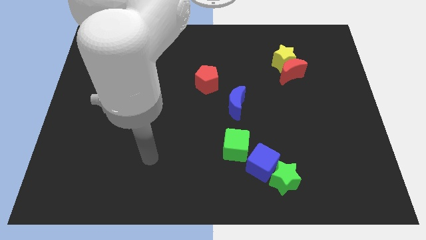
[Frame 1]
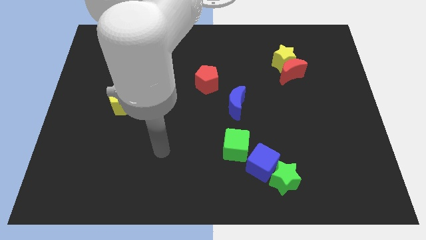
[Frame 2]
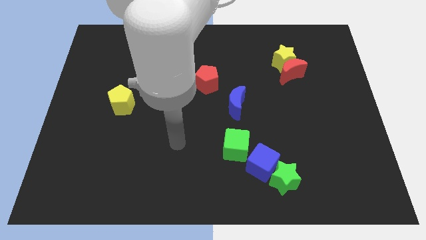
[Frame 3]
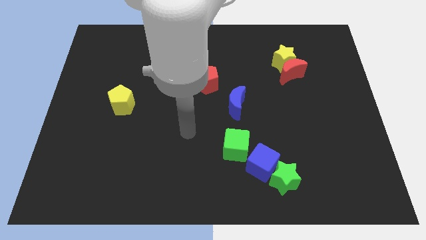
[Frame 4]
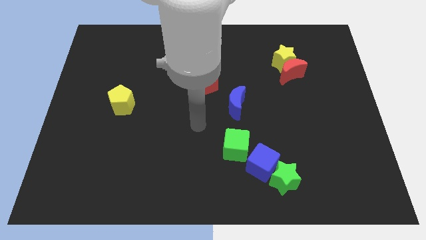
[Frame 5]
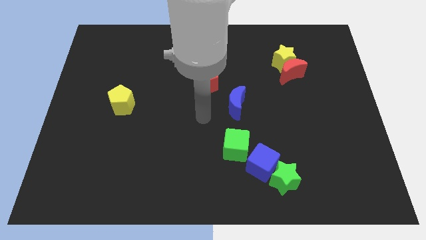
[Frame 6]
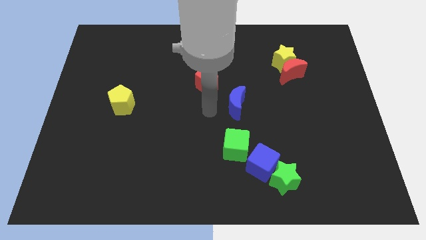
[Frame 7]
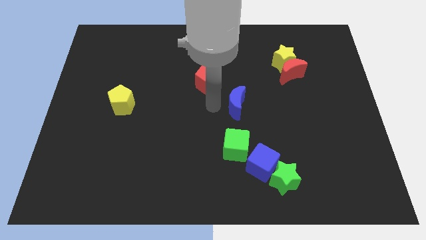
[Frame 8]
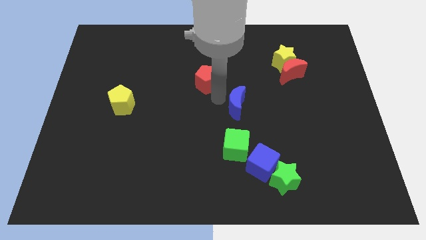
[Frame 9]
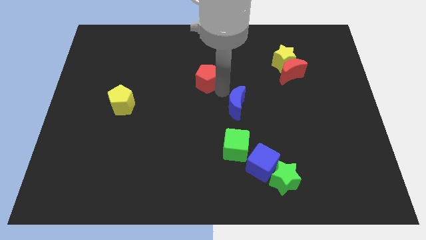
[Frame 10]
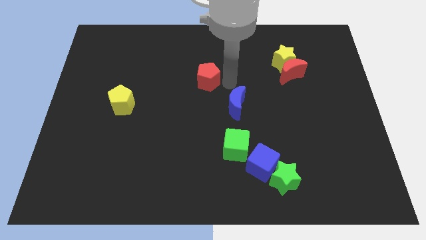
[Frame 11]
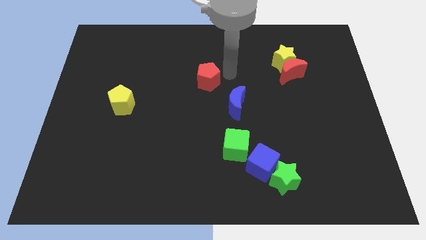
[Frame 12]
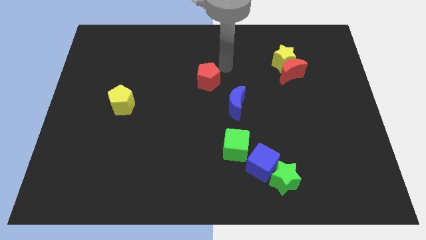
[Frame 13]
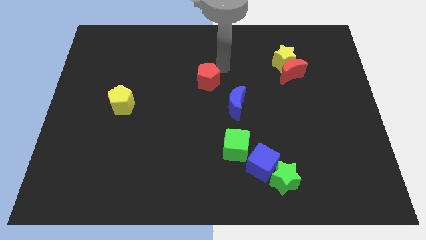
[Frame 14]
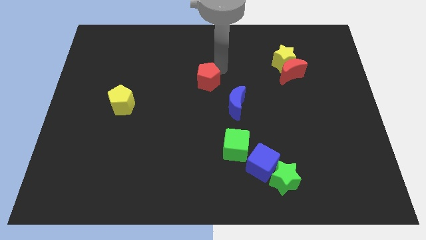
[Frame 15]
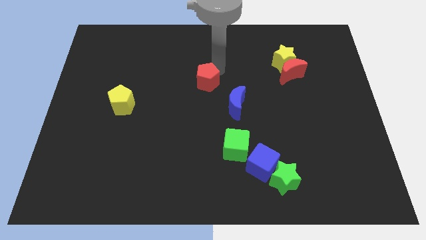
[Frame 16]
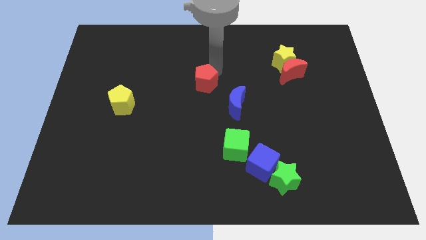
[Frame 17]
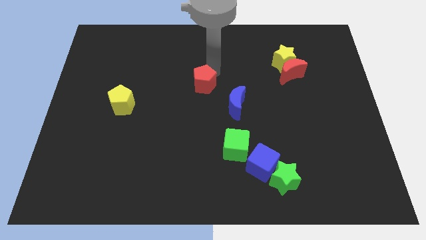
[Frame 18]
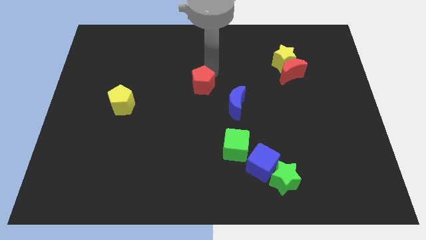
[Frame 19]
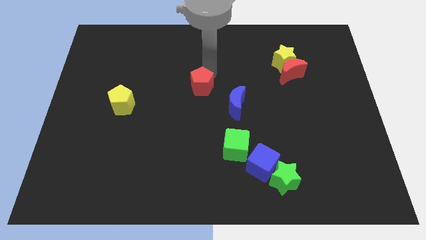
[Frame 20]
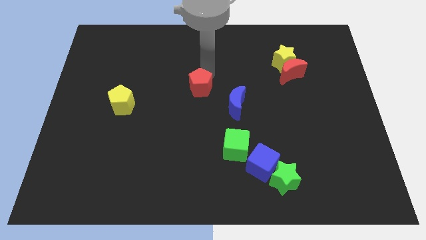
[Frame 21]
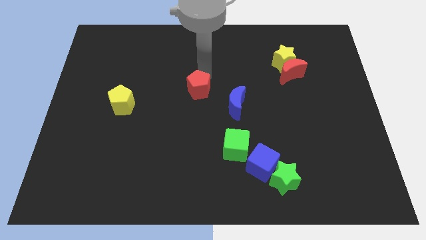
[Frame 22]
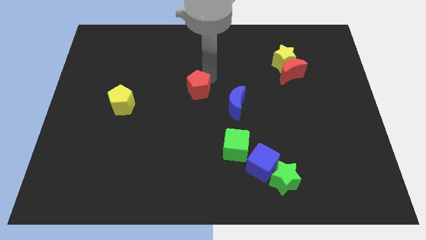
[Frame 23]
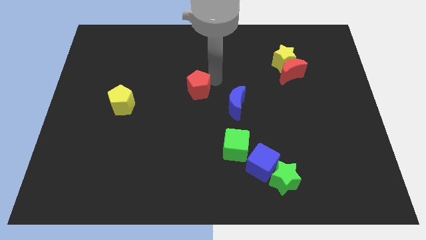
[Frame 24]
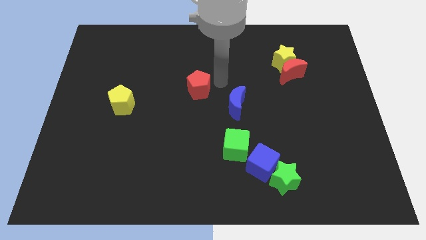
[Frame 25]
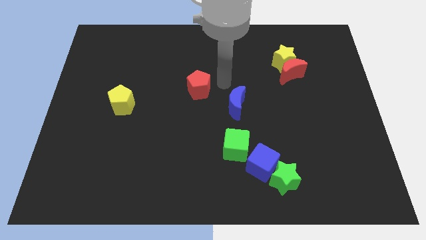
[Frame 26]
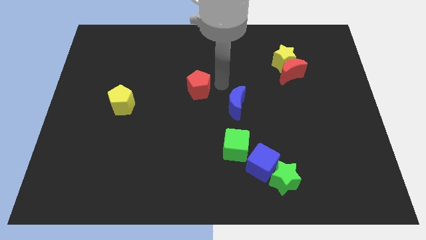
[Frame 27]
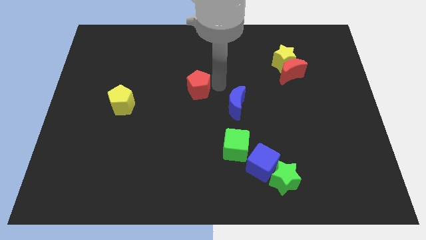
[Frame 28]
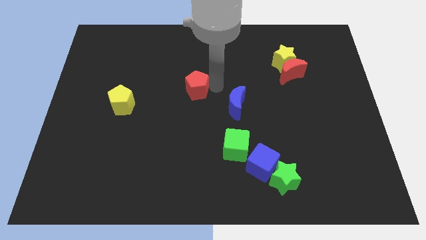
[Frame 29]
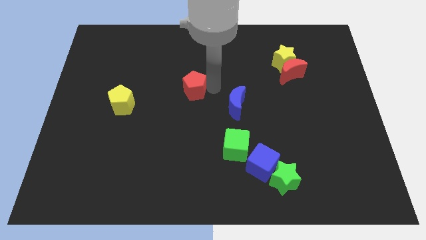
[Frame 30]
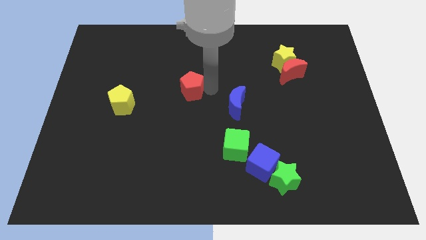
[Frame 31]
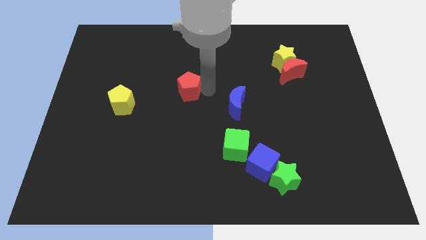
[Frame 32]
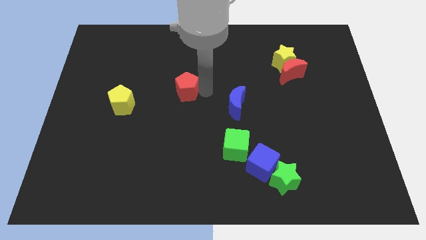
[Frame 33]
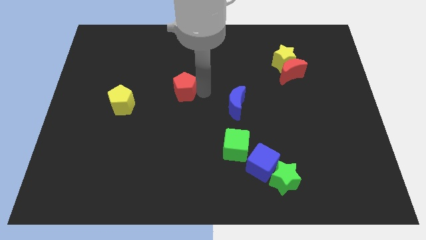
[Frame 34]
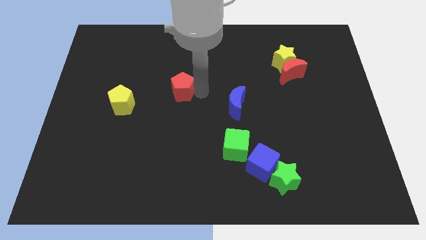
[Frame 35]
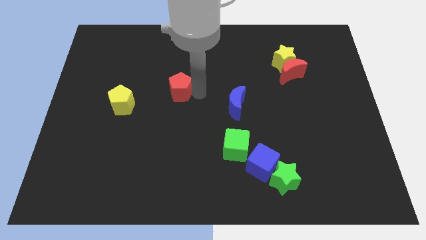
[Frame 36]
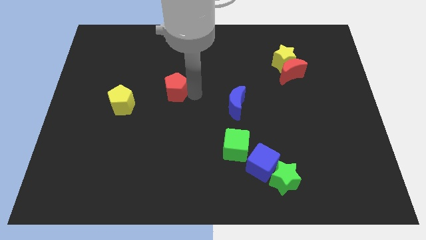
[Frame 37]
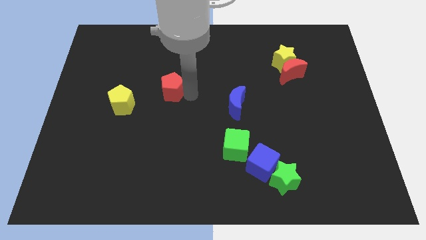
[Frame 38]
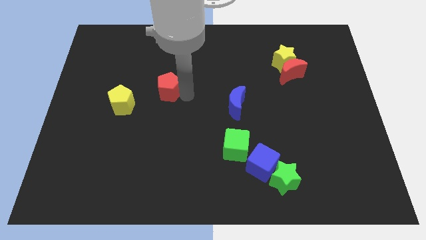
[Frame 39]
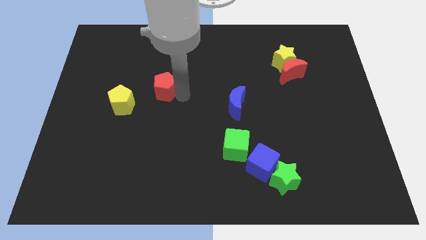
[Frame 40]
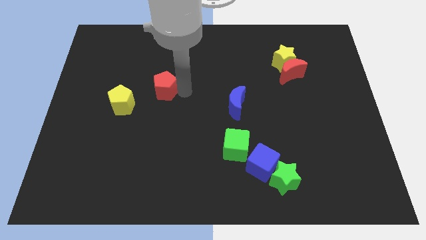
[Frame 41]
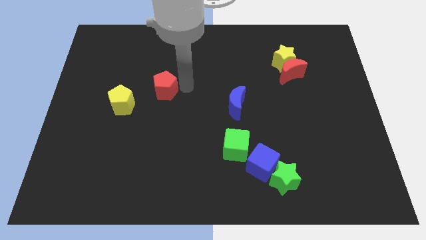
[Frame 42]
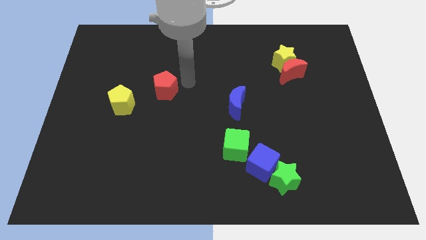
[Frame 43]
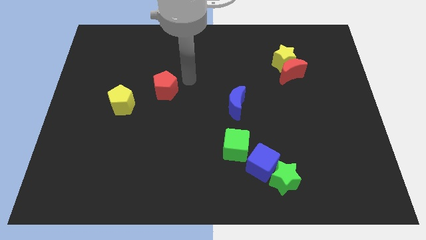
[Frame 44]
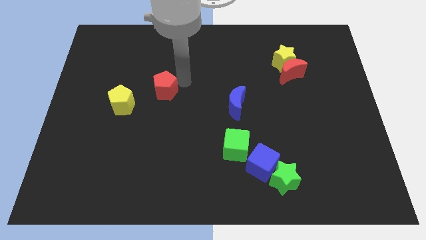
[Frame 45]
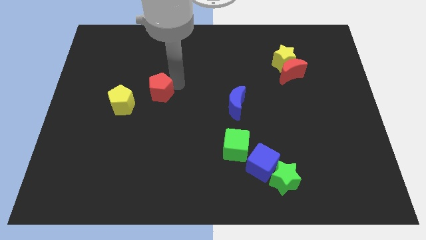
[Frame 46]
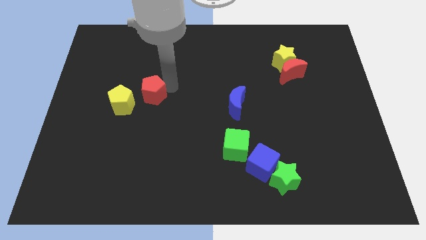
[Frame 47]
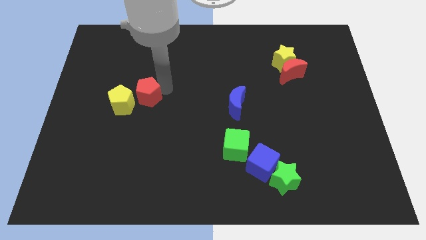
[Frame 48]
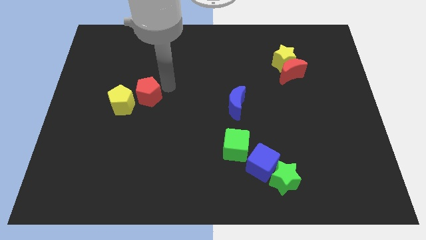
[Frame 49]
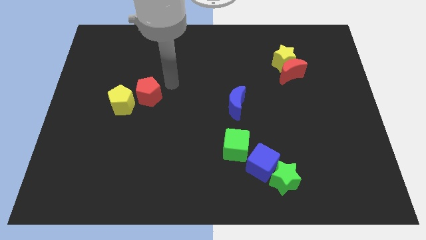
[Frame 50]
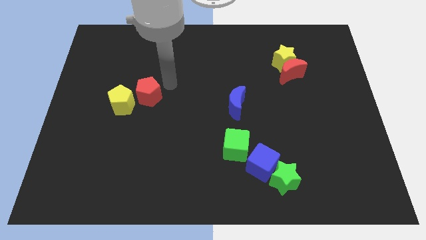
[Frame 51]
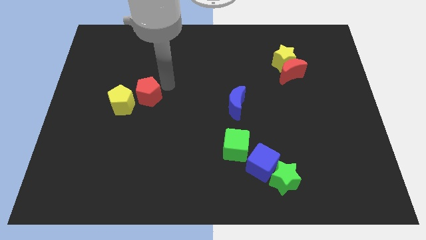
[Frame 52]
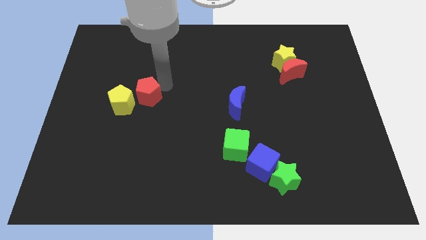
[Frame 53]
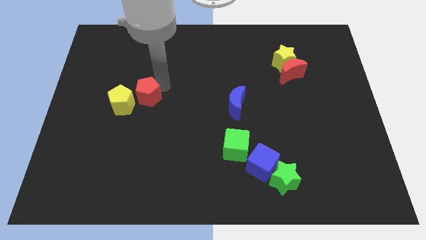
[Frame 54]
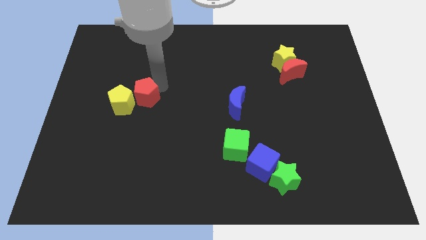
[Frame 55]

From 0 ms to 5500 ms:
put the red pentagon next to the yellow pentagon

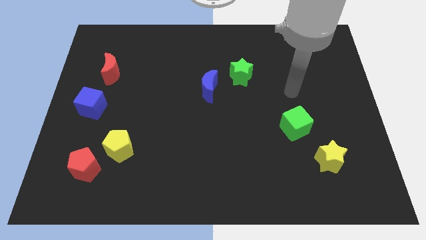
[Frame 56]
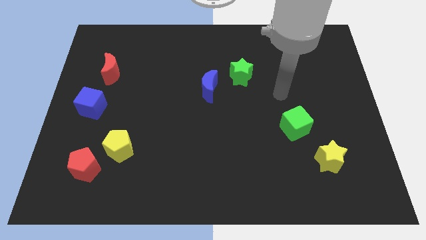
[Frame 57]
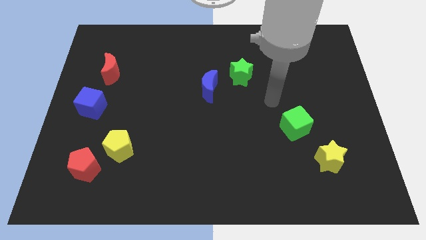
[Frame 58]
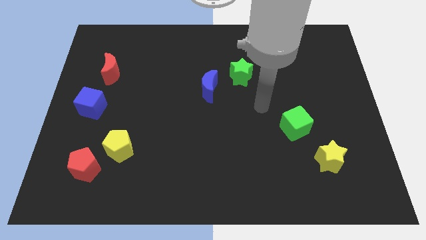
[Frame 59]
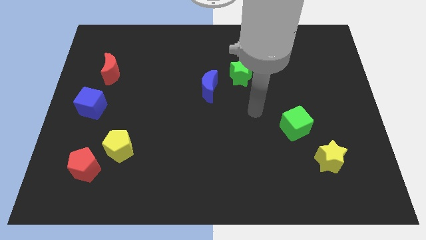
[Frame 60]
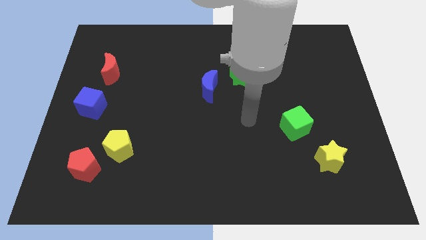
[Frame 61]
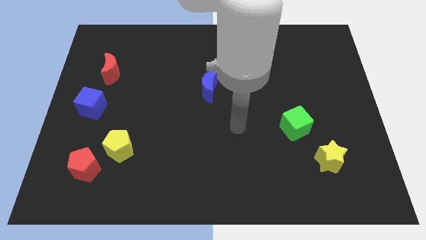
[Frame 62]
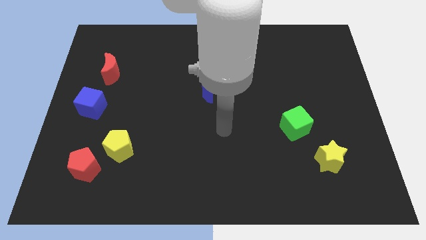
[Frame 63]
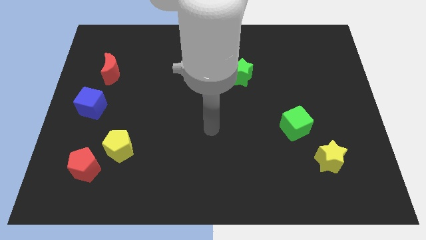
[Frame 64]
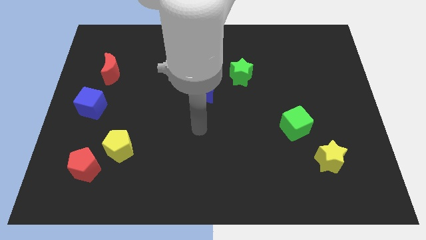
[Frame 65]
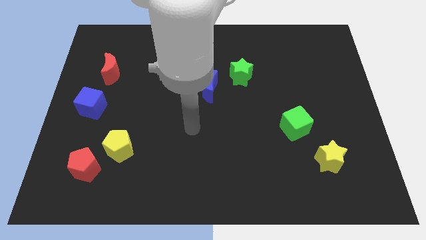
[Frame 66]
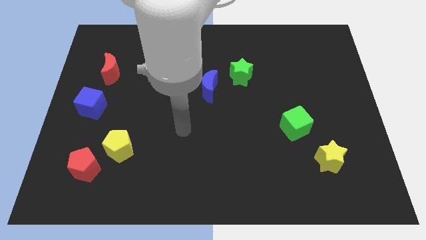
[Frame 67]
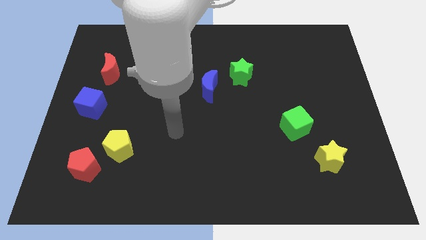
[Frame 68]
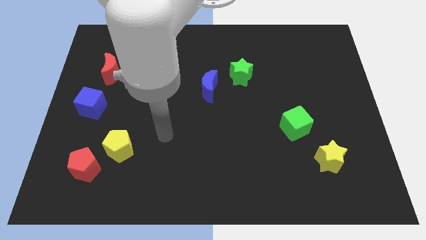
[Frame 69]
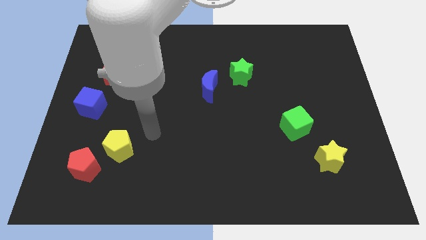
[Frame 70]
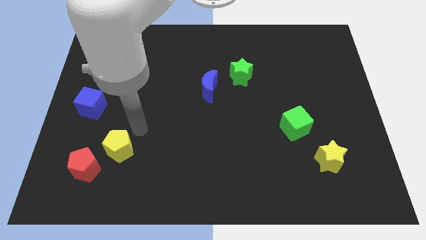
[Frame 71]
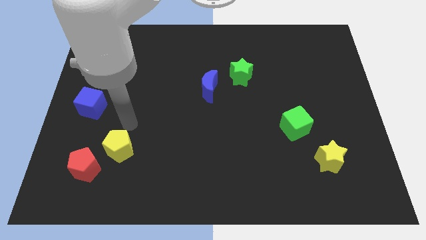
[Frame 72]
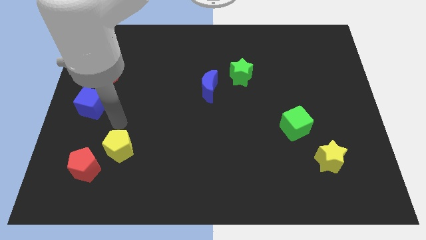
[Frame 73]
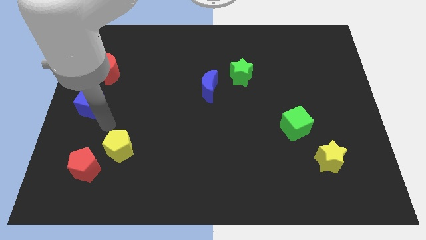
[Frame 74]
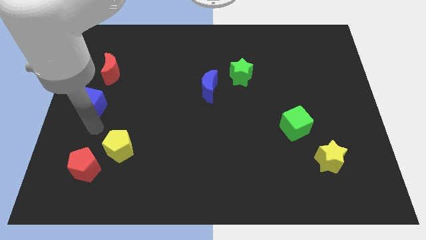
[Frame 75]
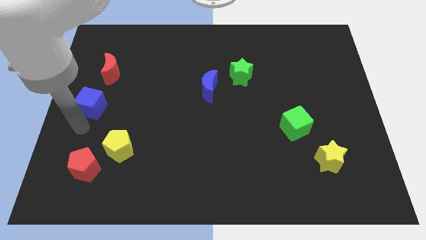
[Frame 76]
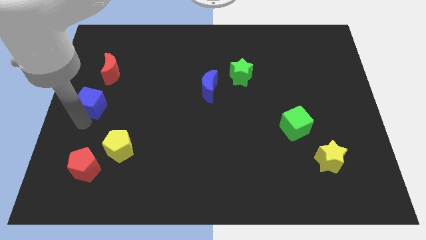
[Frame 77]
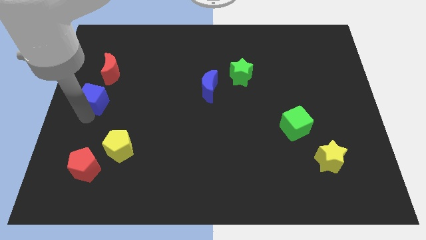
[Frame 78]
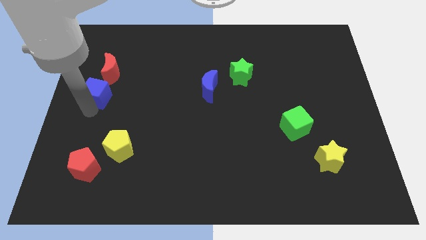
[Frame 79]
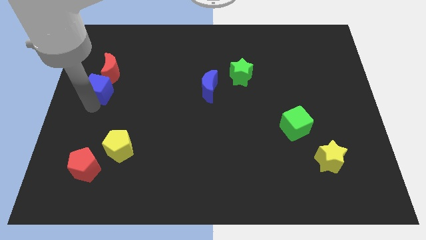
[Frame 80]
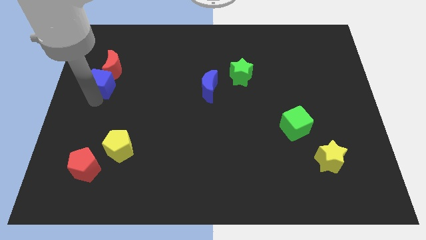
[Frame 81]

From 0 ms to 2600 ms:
push the blue cube close to the red moon
